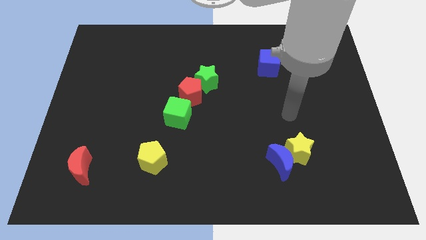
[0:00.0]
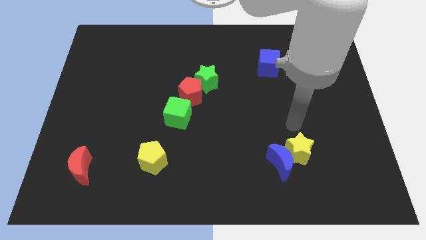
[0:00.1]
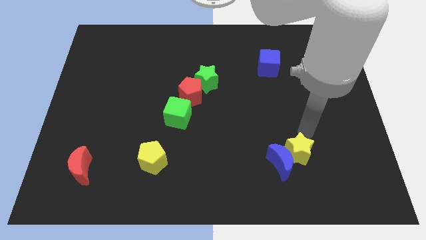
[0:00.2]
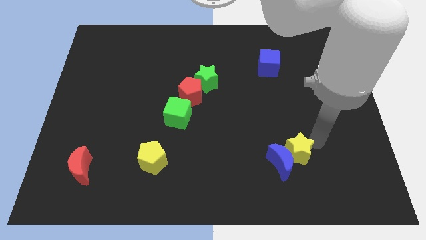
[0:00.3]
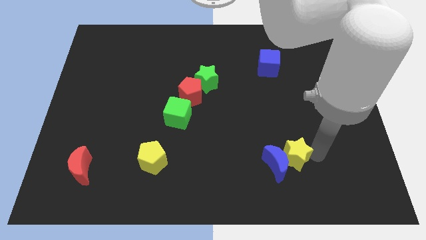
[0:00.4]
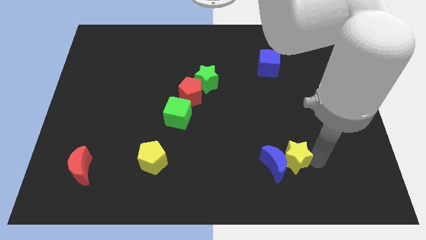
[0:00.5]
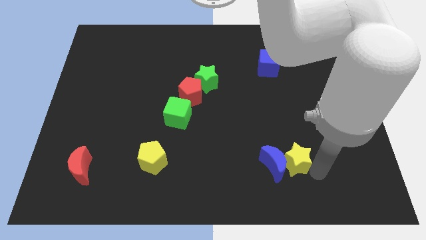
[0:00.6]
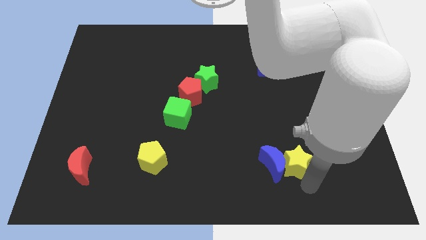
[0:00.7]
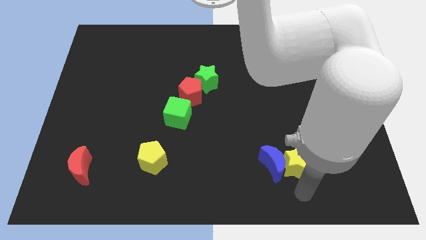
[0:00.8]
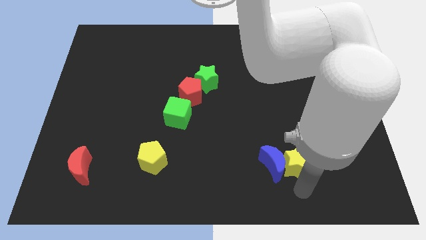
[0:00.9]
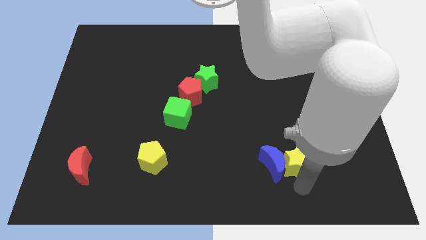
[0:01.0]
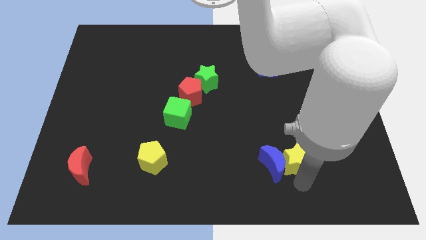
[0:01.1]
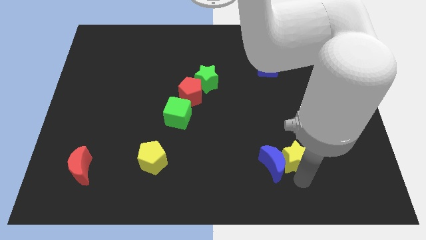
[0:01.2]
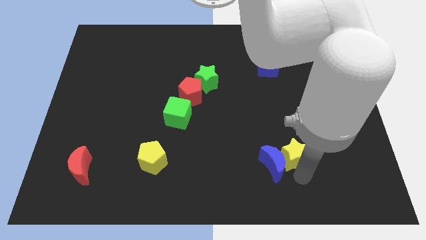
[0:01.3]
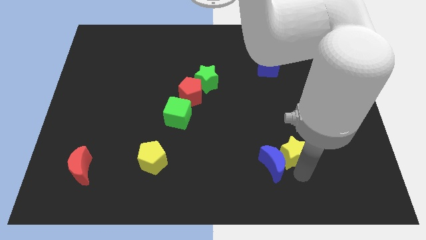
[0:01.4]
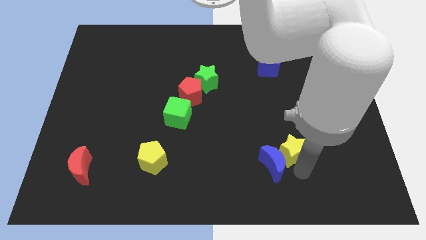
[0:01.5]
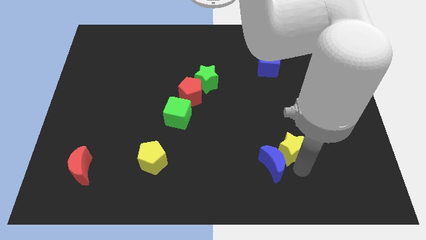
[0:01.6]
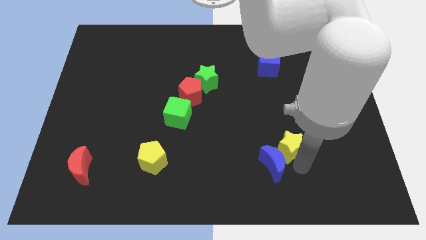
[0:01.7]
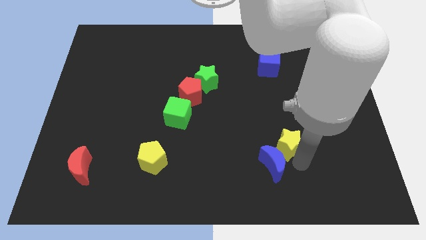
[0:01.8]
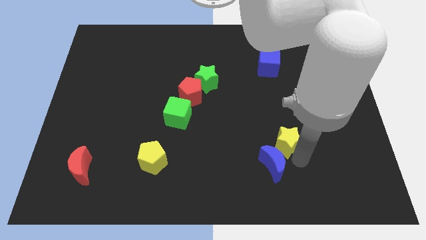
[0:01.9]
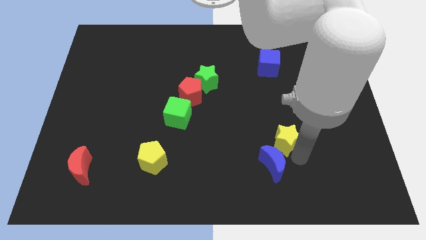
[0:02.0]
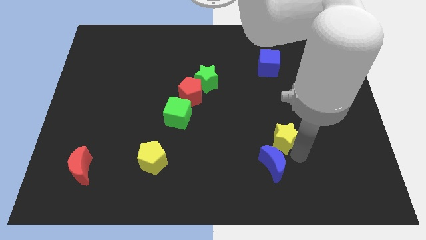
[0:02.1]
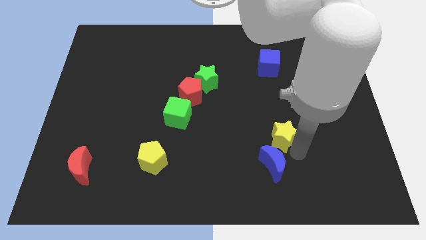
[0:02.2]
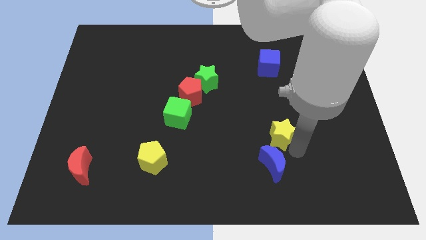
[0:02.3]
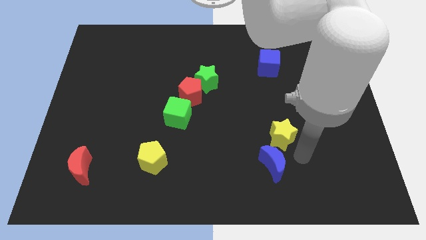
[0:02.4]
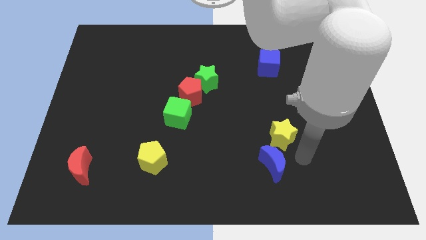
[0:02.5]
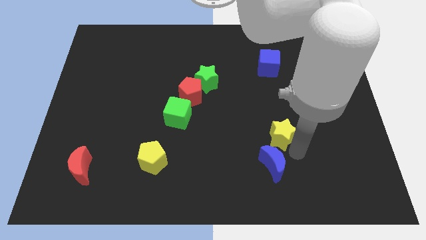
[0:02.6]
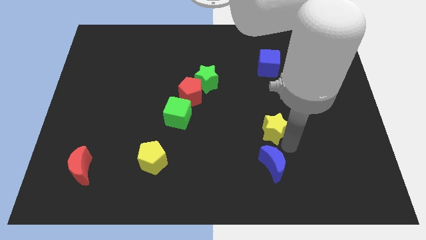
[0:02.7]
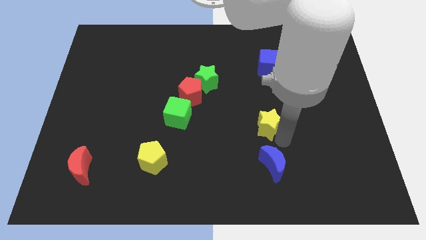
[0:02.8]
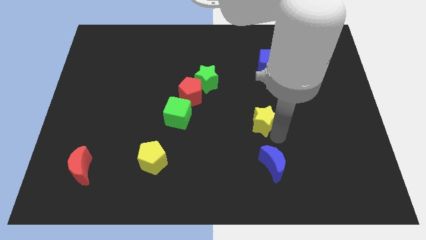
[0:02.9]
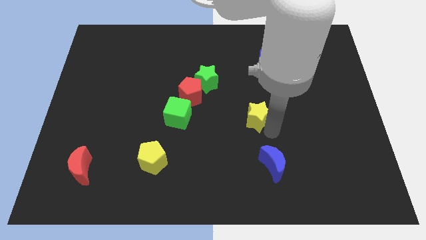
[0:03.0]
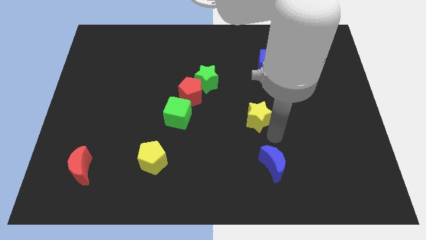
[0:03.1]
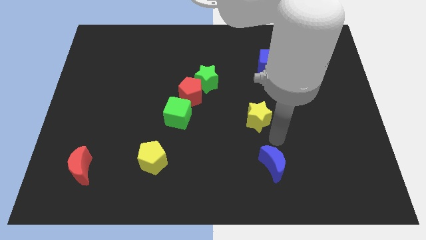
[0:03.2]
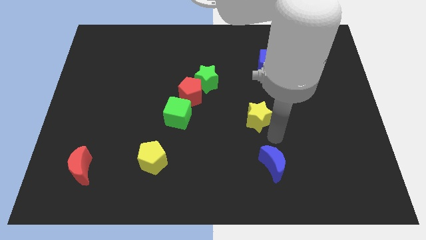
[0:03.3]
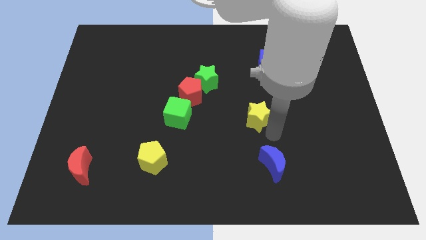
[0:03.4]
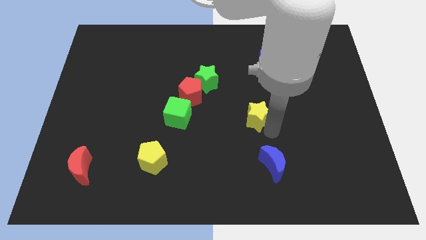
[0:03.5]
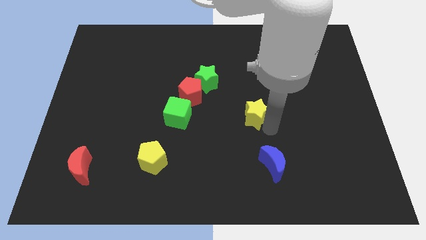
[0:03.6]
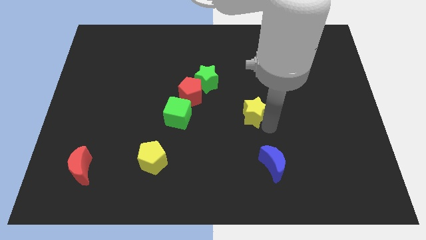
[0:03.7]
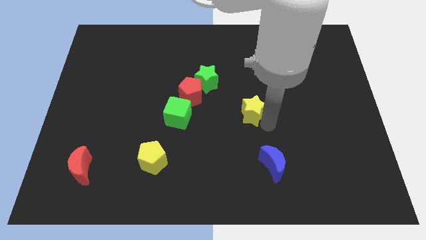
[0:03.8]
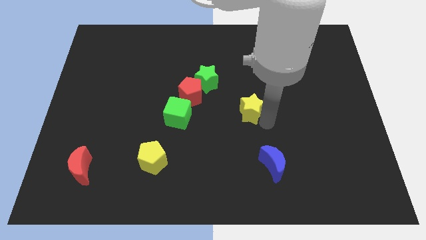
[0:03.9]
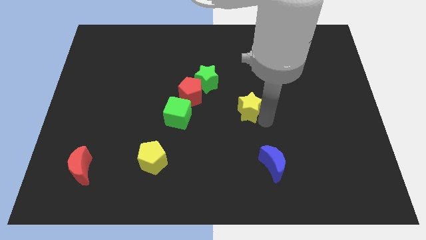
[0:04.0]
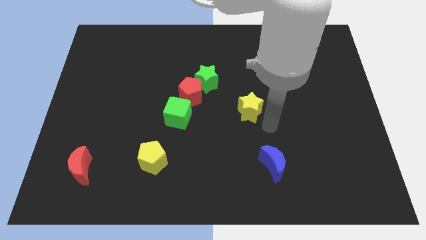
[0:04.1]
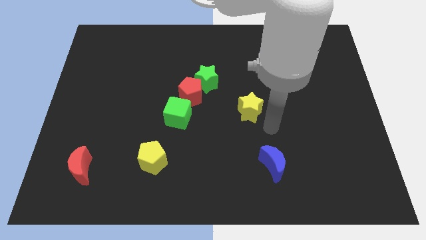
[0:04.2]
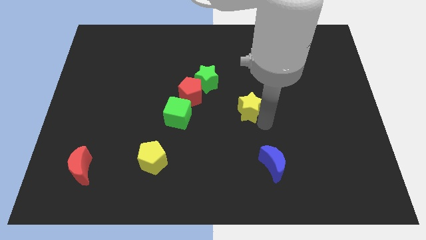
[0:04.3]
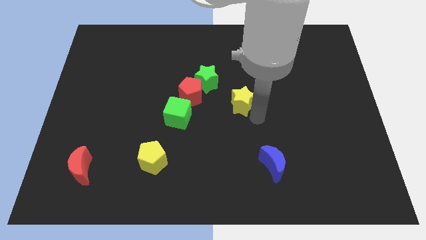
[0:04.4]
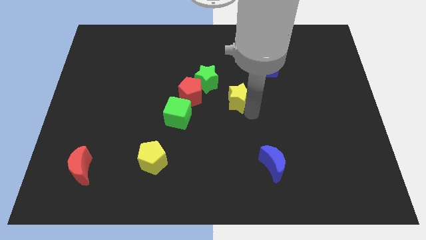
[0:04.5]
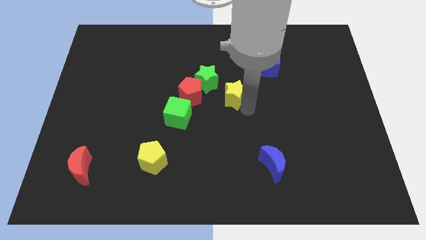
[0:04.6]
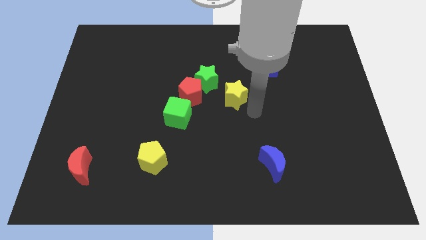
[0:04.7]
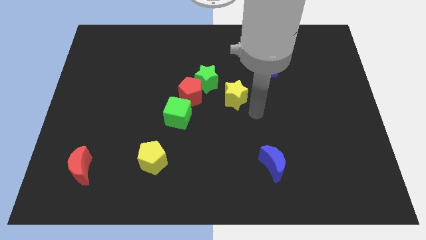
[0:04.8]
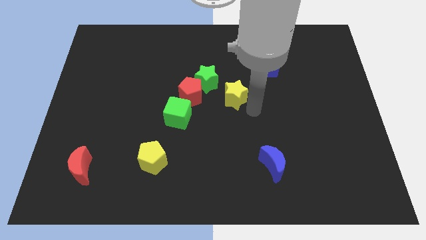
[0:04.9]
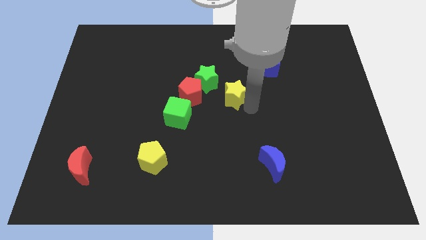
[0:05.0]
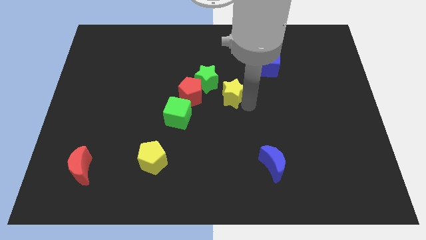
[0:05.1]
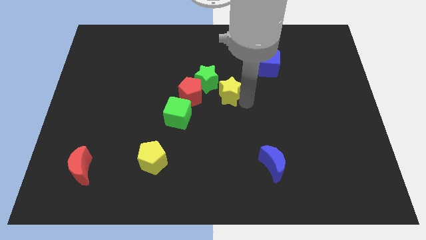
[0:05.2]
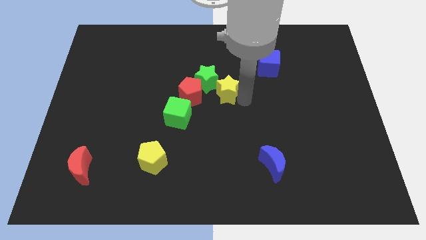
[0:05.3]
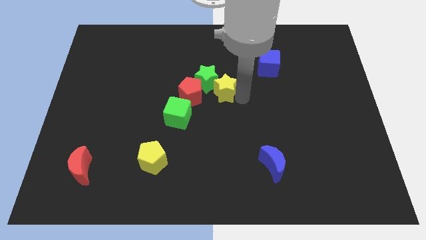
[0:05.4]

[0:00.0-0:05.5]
move the yellow star close to the green star

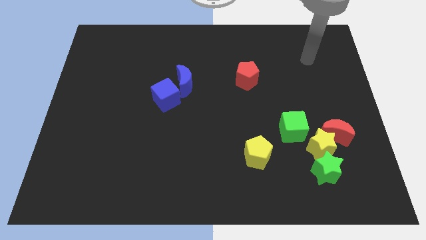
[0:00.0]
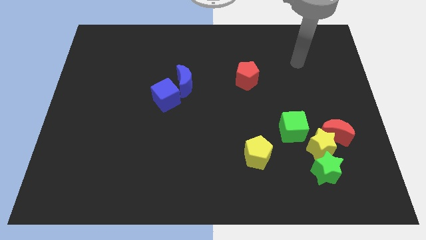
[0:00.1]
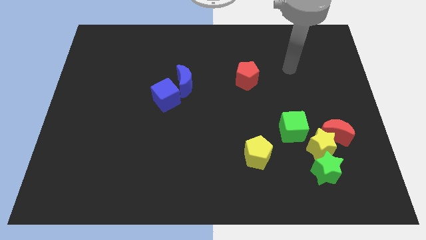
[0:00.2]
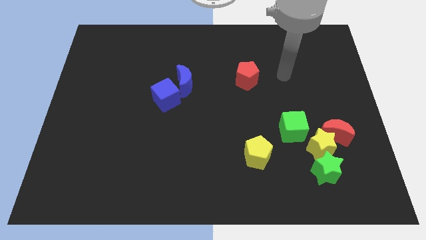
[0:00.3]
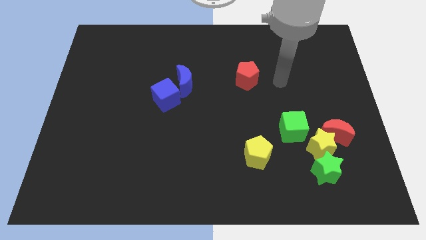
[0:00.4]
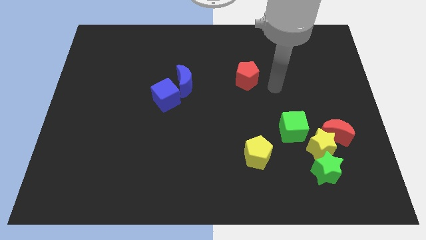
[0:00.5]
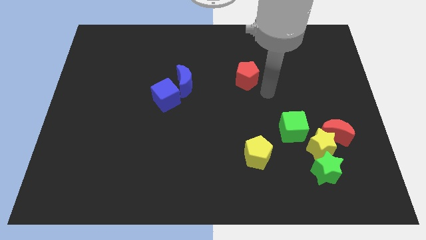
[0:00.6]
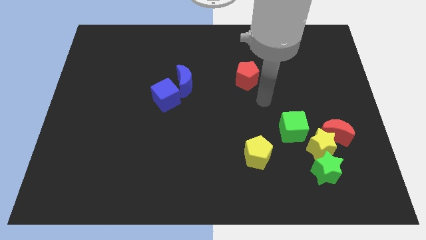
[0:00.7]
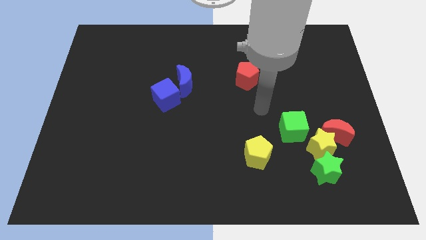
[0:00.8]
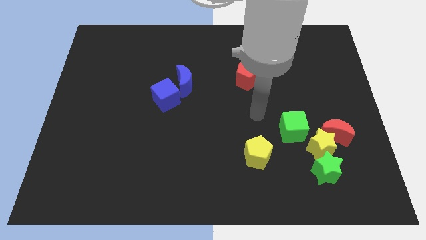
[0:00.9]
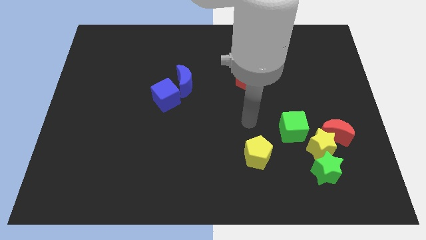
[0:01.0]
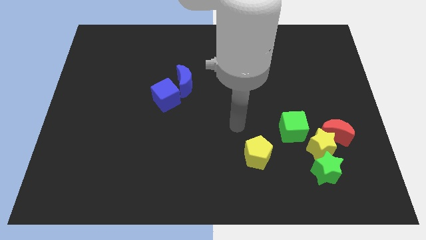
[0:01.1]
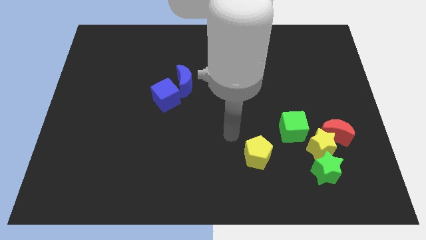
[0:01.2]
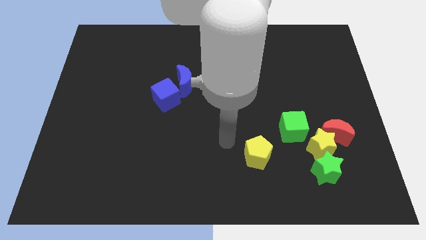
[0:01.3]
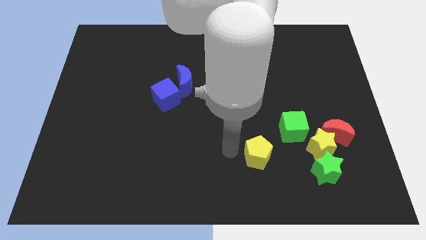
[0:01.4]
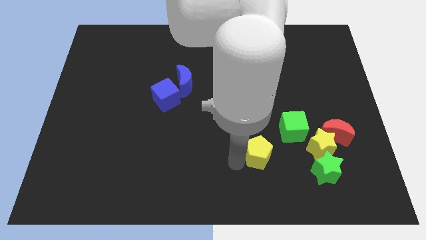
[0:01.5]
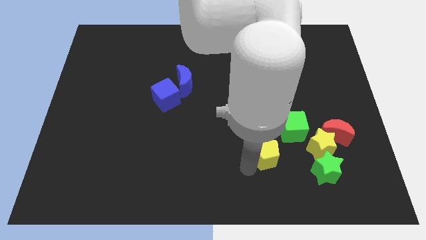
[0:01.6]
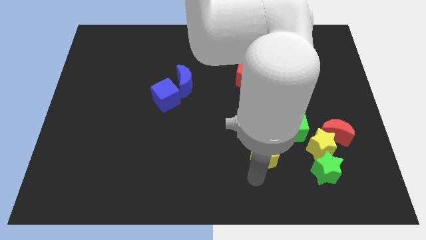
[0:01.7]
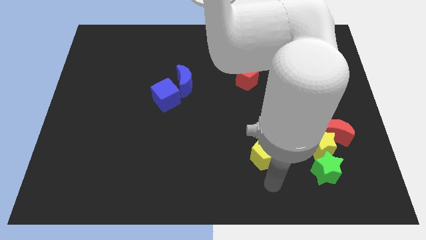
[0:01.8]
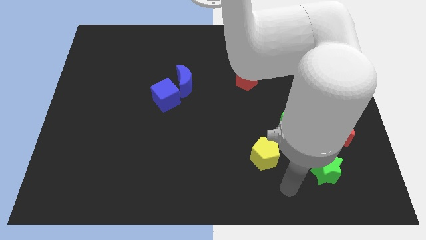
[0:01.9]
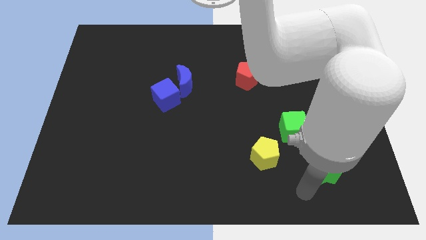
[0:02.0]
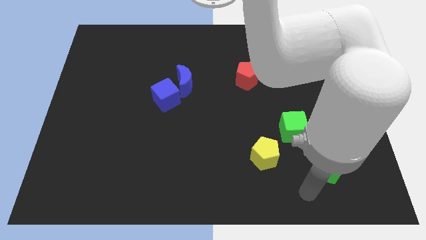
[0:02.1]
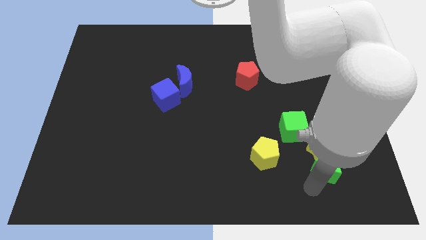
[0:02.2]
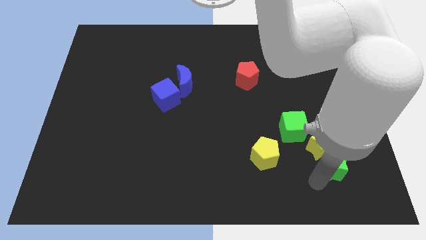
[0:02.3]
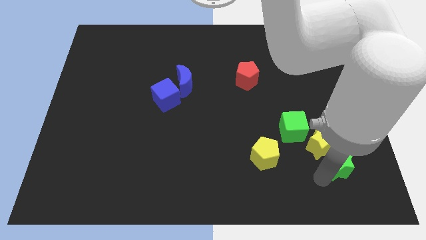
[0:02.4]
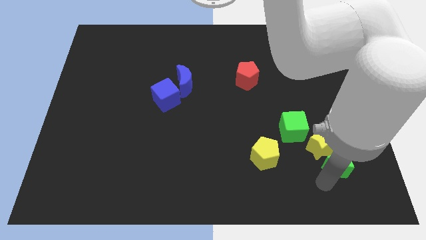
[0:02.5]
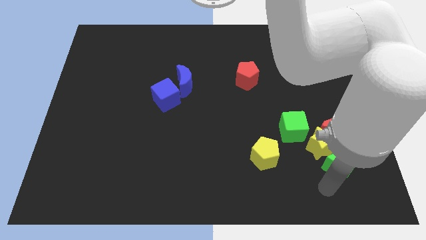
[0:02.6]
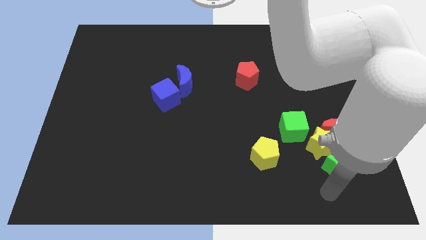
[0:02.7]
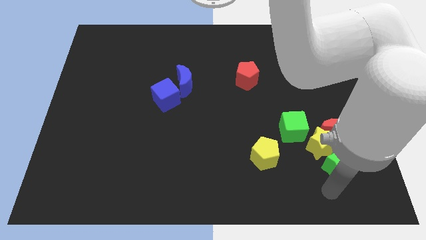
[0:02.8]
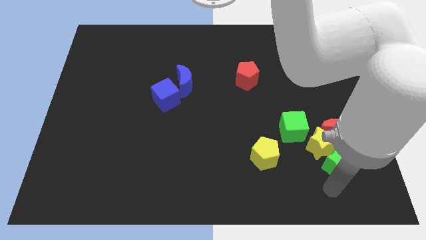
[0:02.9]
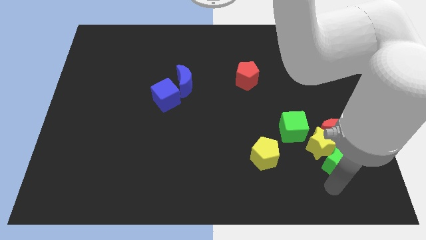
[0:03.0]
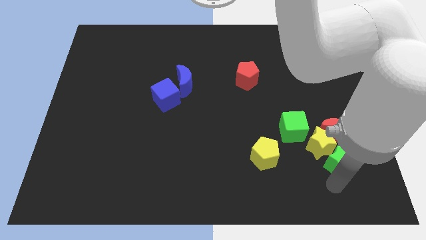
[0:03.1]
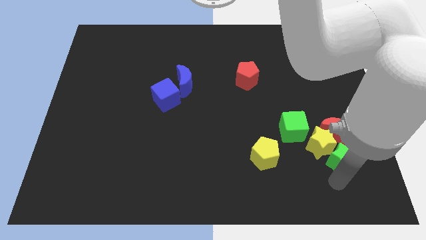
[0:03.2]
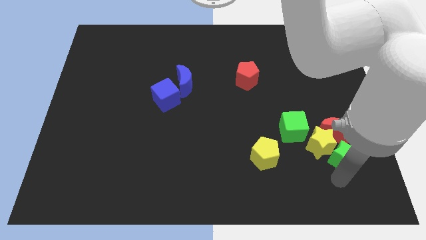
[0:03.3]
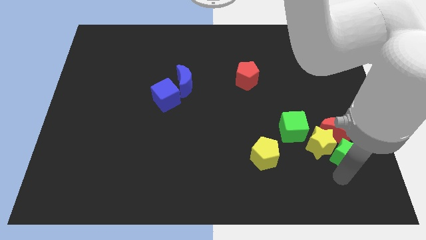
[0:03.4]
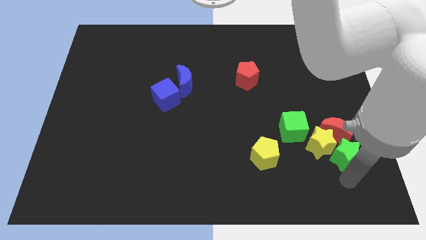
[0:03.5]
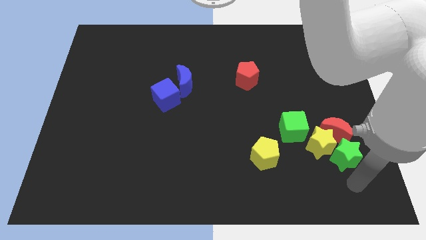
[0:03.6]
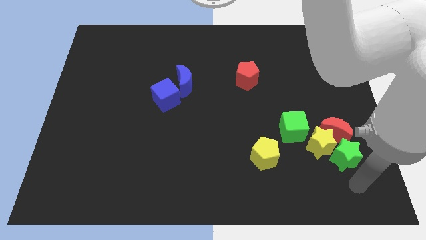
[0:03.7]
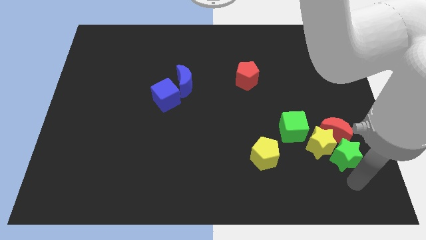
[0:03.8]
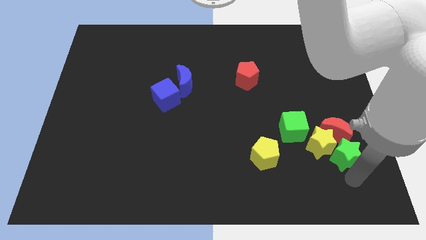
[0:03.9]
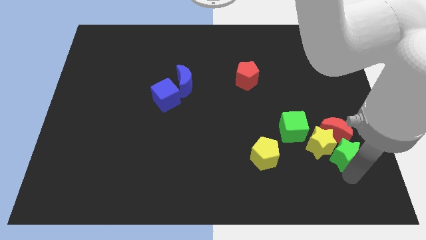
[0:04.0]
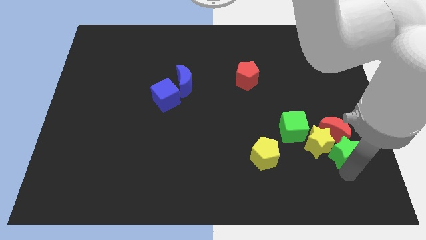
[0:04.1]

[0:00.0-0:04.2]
put the green star to the red moon
